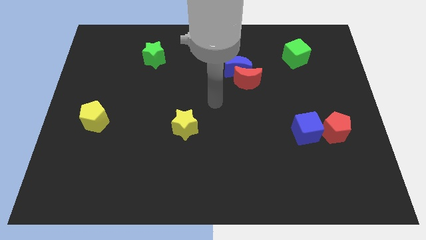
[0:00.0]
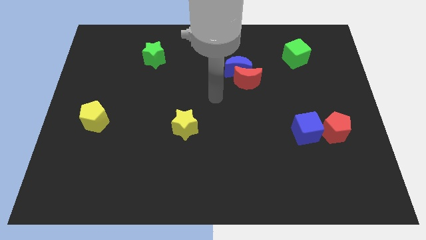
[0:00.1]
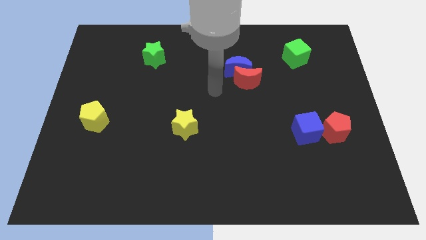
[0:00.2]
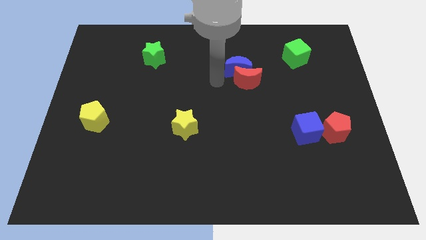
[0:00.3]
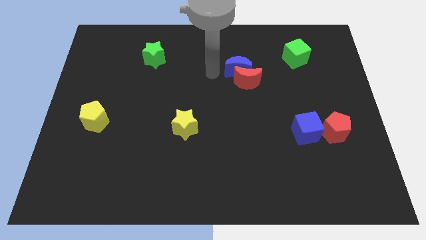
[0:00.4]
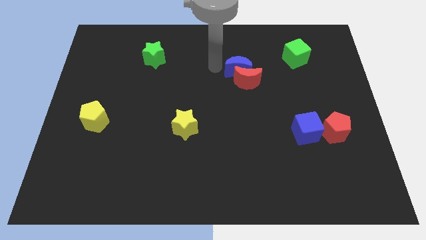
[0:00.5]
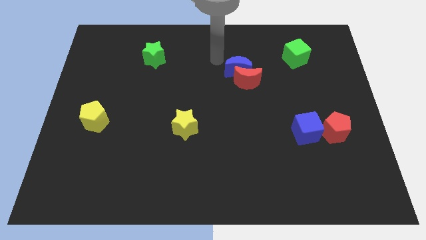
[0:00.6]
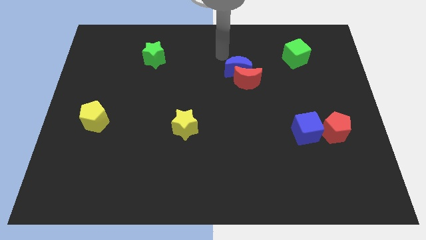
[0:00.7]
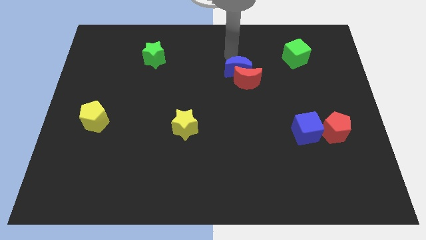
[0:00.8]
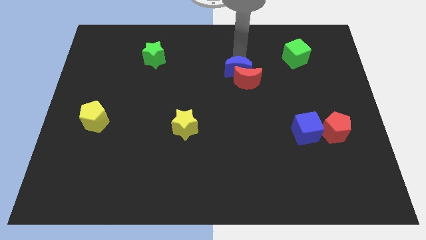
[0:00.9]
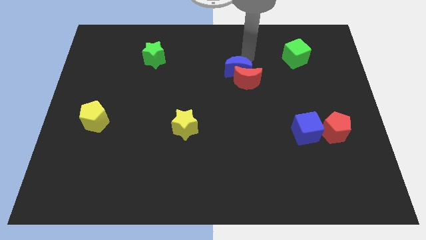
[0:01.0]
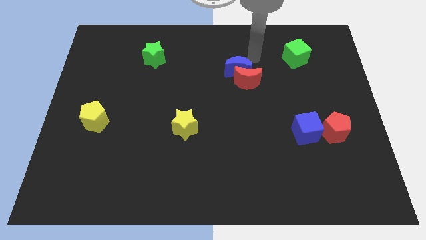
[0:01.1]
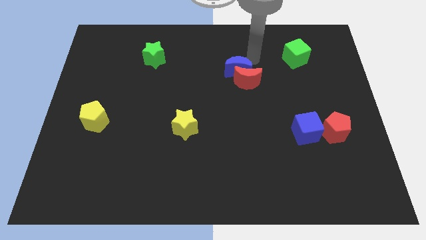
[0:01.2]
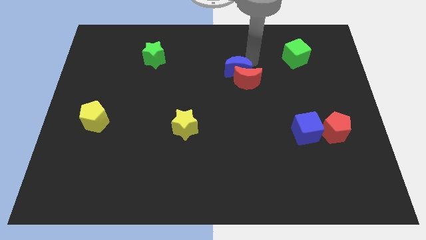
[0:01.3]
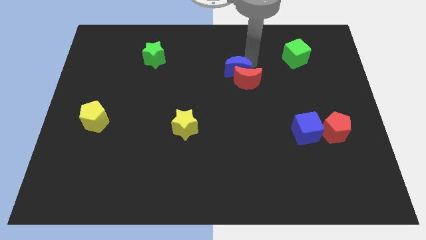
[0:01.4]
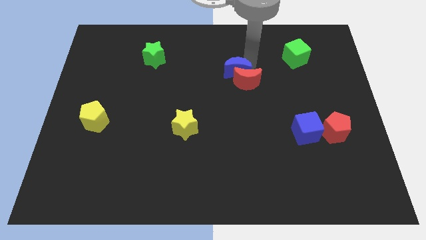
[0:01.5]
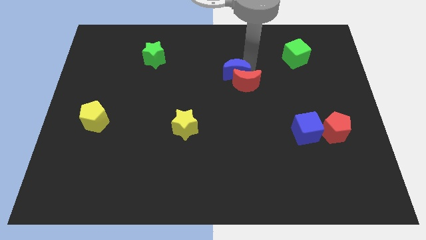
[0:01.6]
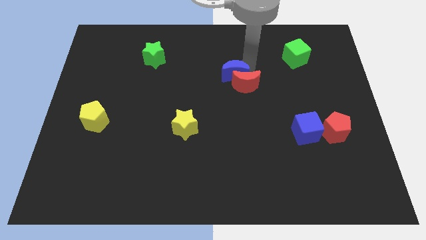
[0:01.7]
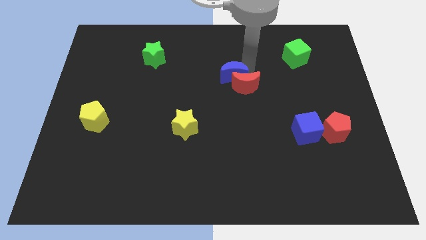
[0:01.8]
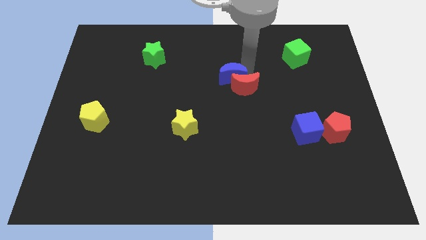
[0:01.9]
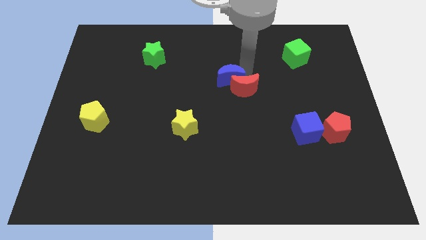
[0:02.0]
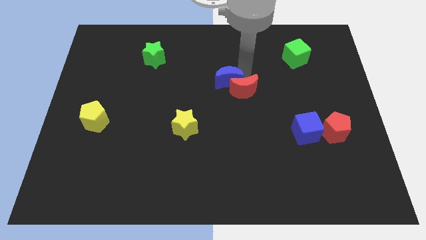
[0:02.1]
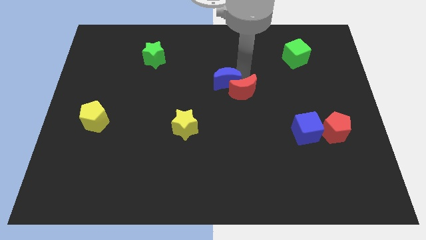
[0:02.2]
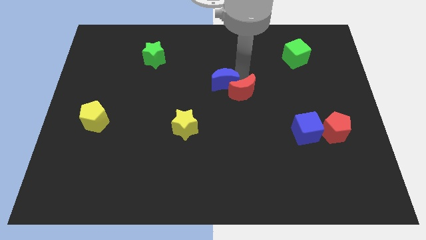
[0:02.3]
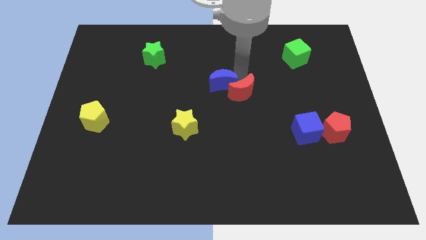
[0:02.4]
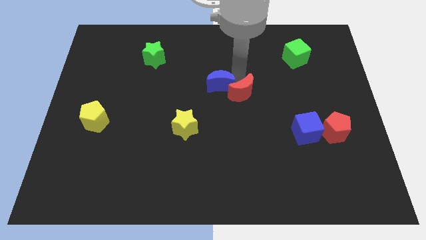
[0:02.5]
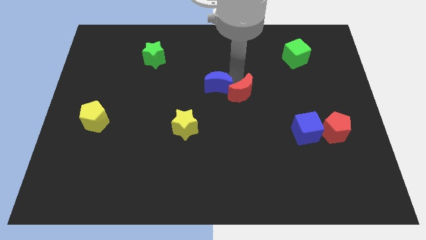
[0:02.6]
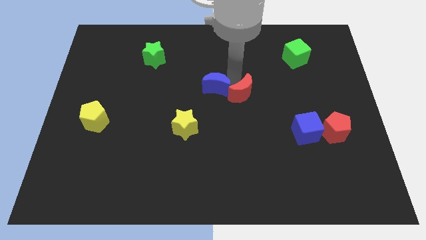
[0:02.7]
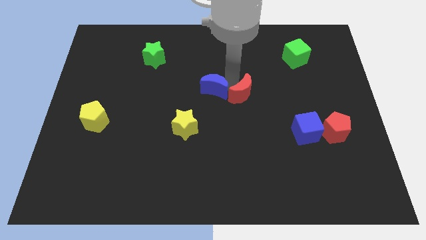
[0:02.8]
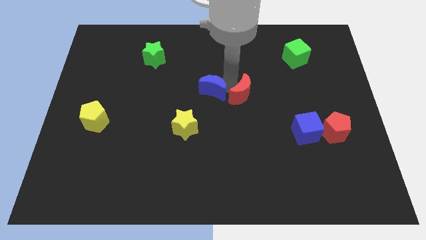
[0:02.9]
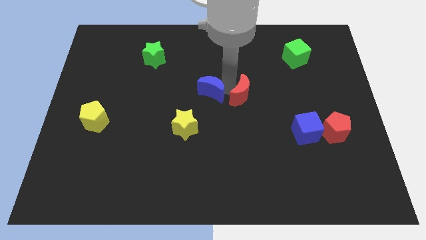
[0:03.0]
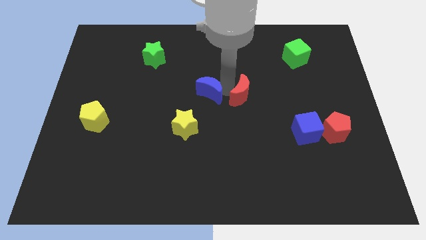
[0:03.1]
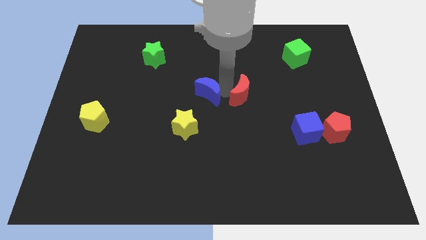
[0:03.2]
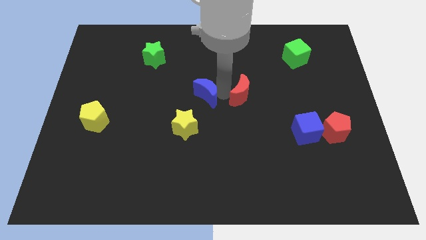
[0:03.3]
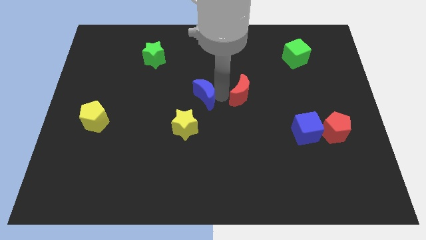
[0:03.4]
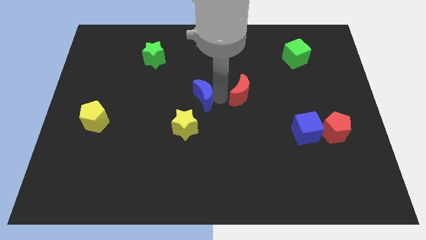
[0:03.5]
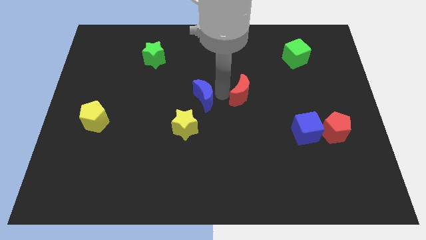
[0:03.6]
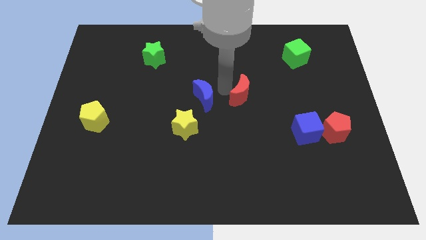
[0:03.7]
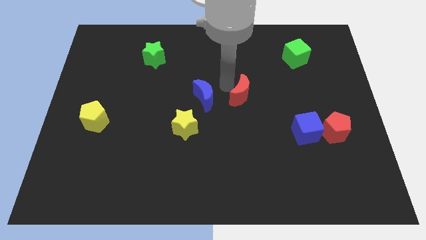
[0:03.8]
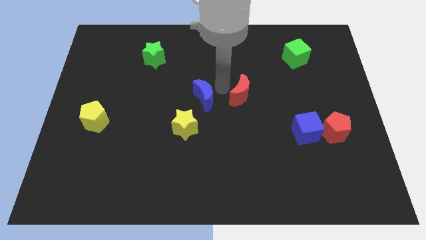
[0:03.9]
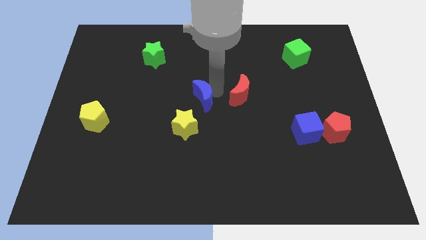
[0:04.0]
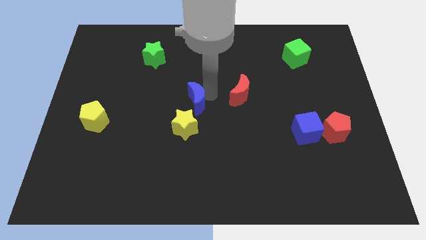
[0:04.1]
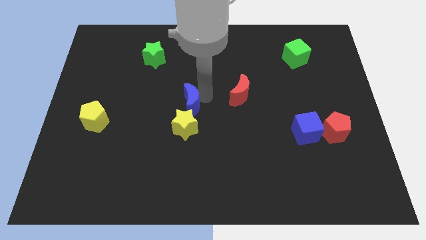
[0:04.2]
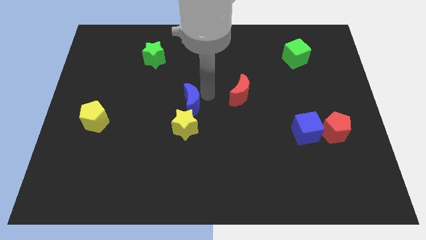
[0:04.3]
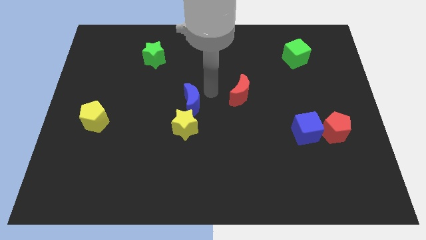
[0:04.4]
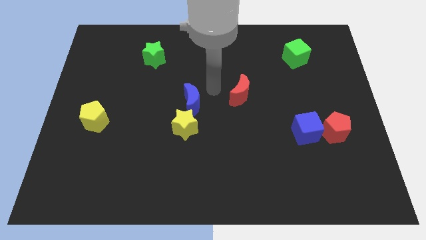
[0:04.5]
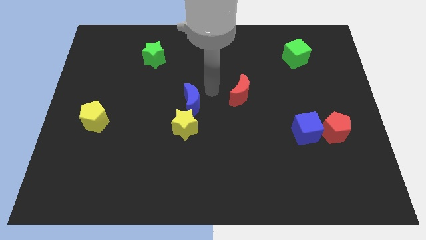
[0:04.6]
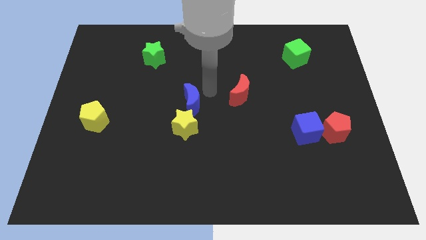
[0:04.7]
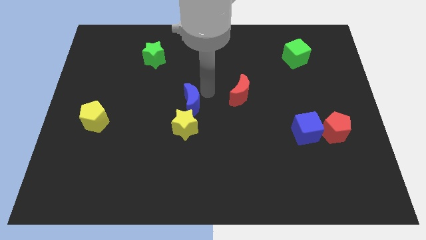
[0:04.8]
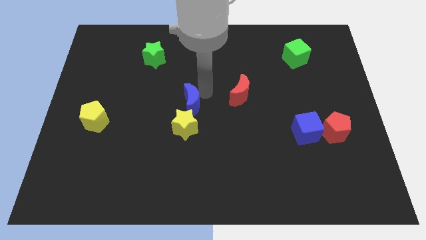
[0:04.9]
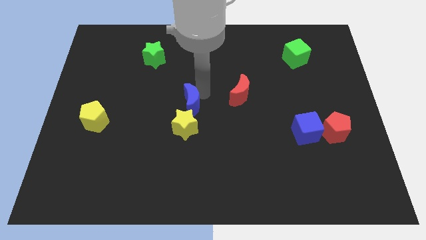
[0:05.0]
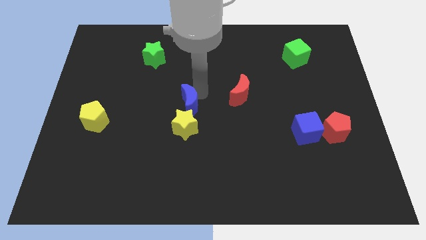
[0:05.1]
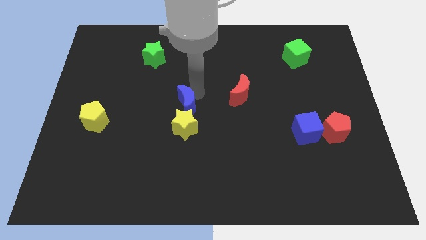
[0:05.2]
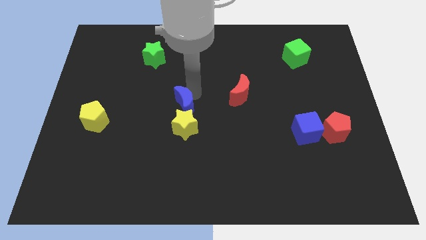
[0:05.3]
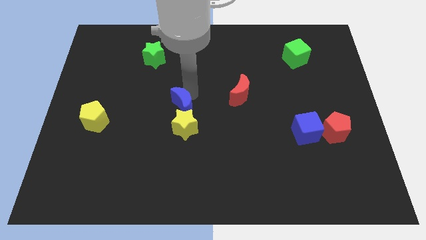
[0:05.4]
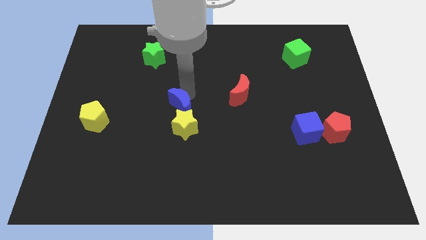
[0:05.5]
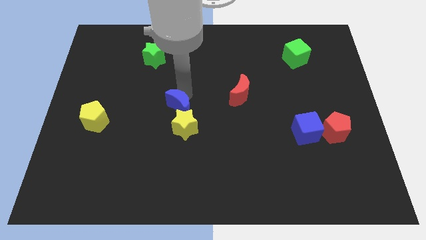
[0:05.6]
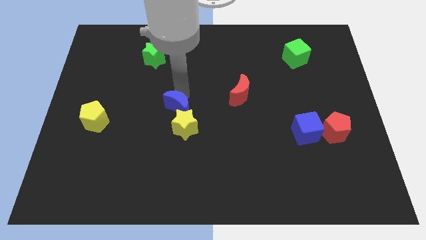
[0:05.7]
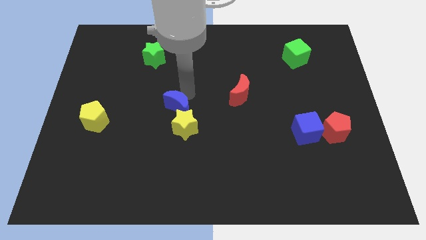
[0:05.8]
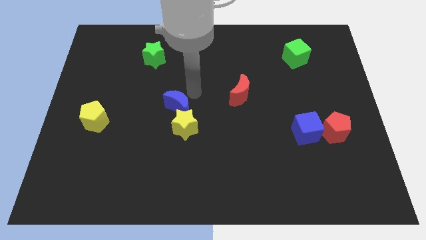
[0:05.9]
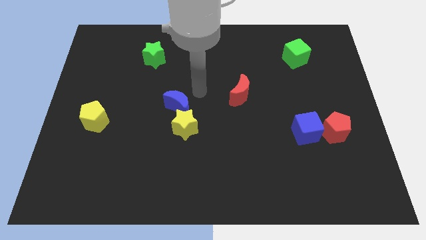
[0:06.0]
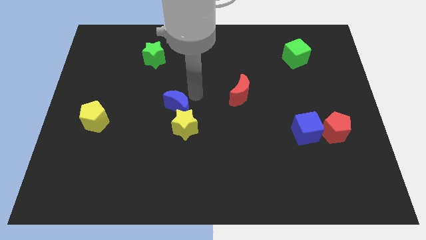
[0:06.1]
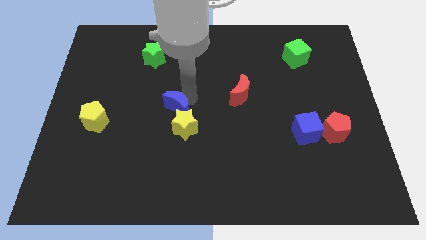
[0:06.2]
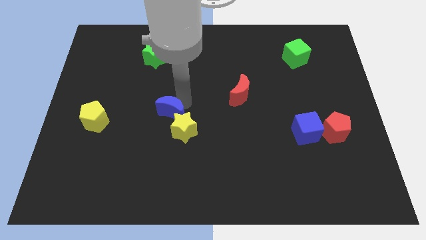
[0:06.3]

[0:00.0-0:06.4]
push the blue moon diagonally downwards and left

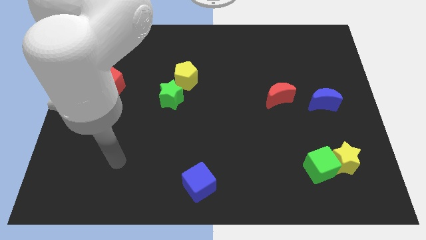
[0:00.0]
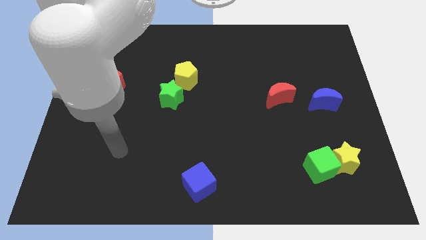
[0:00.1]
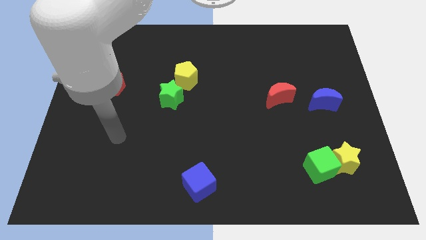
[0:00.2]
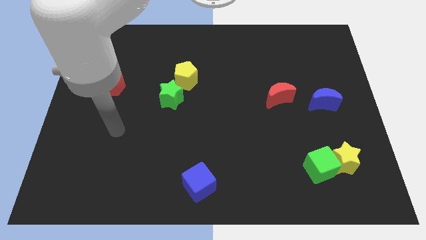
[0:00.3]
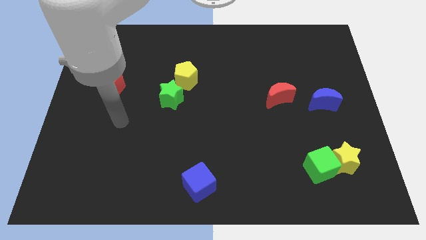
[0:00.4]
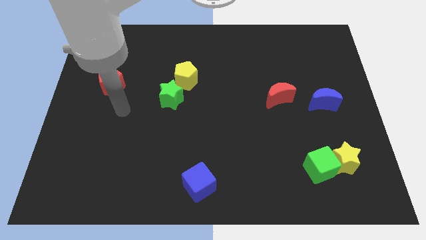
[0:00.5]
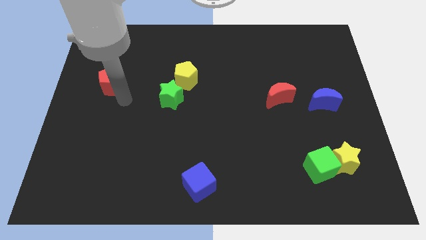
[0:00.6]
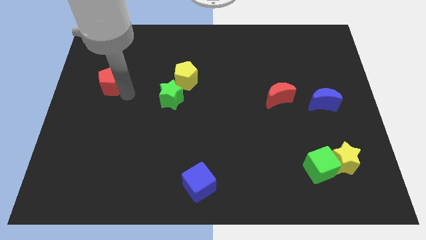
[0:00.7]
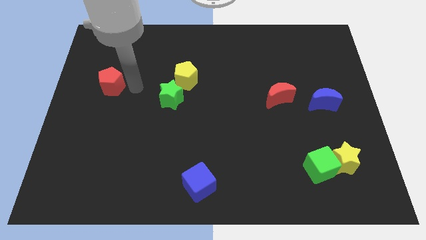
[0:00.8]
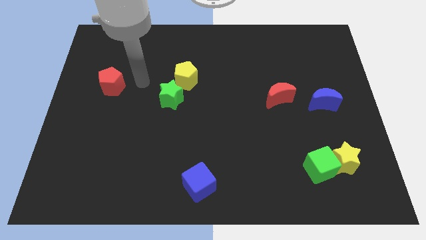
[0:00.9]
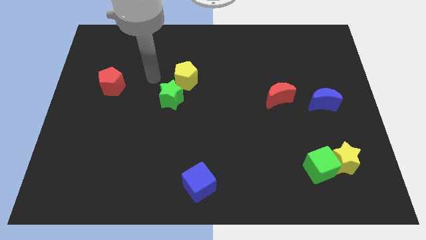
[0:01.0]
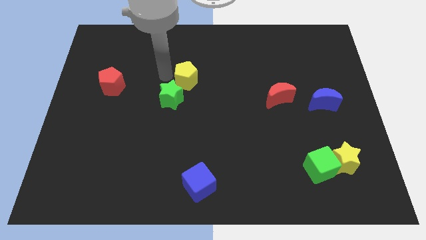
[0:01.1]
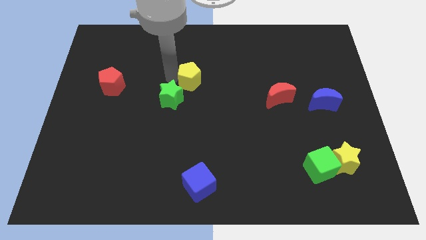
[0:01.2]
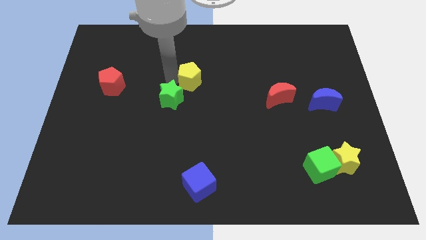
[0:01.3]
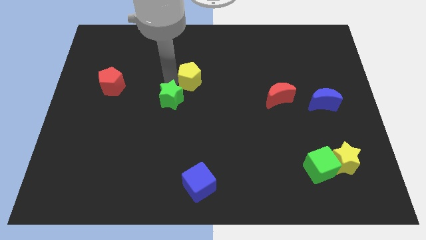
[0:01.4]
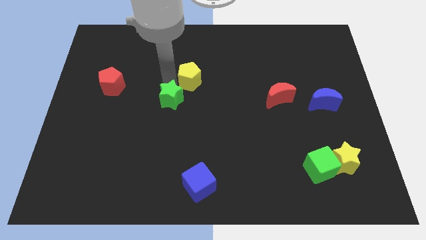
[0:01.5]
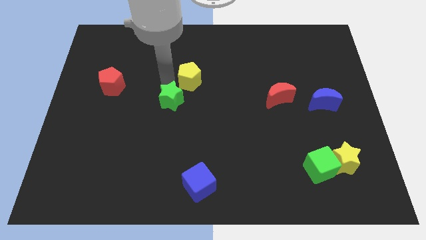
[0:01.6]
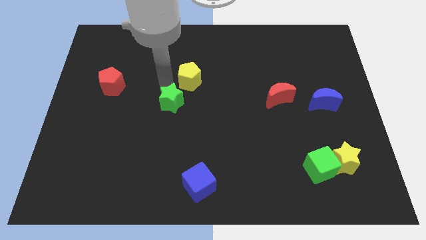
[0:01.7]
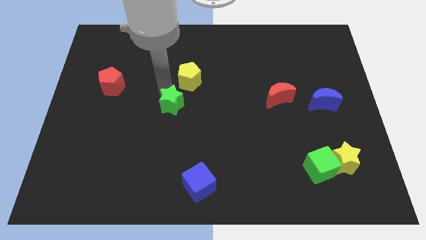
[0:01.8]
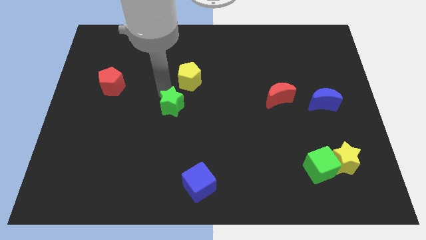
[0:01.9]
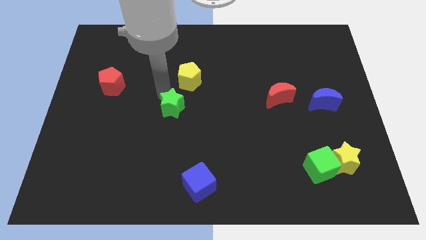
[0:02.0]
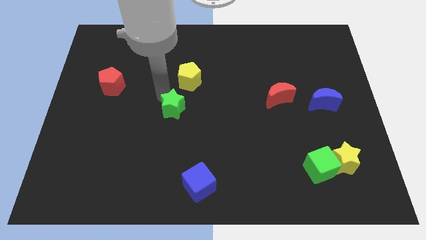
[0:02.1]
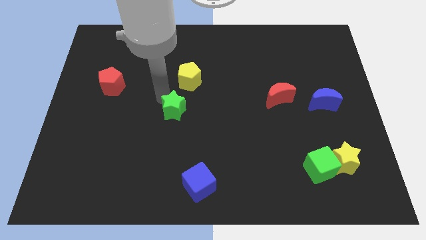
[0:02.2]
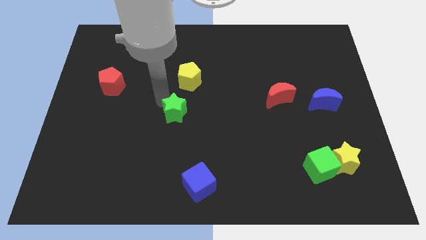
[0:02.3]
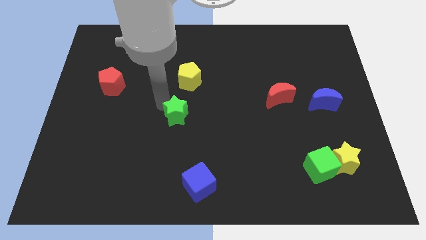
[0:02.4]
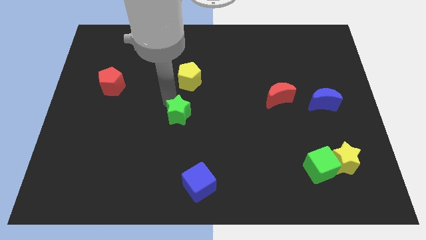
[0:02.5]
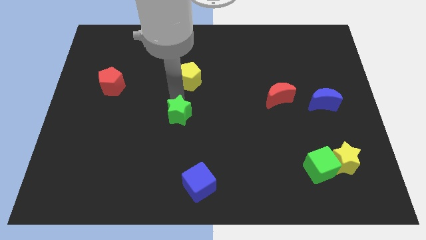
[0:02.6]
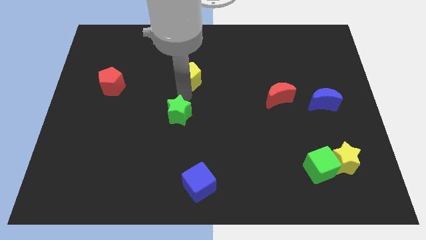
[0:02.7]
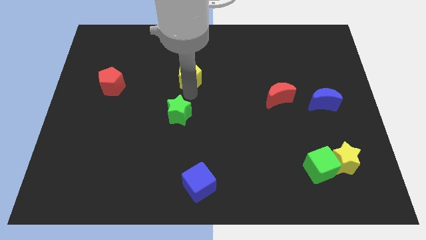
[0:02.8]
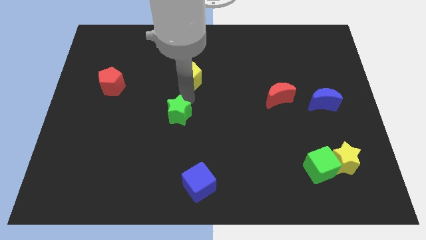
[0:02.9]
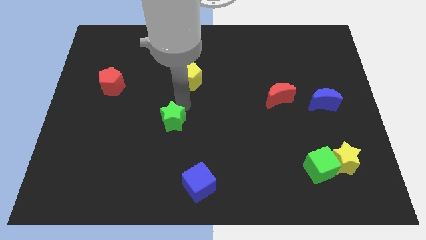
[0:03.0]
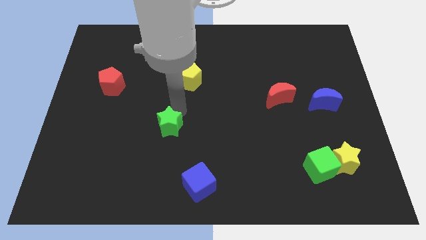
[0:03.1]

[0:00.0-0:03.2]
slightly move the green star downwards
